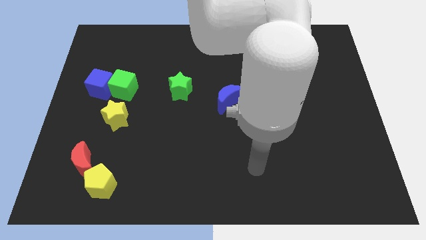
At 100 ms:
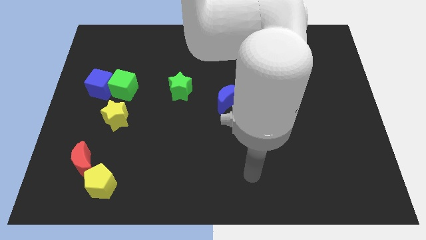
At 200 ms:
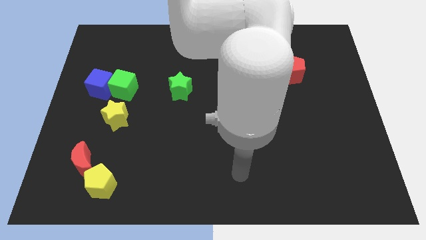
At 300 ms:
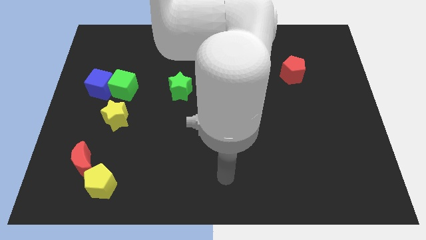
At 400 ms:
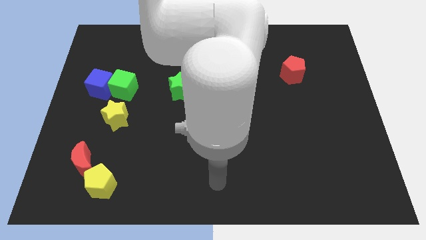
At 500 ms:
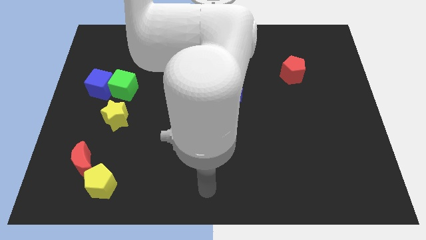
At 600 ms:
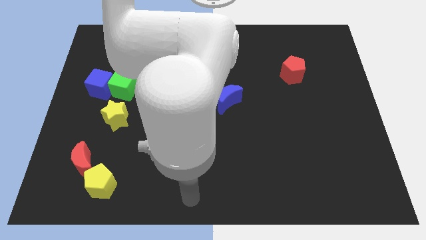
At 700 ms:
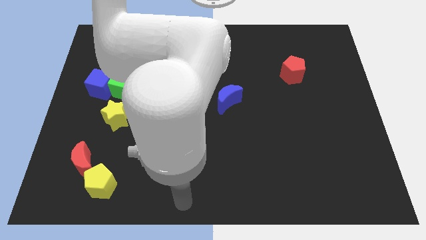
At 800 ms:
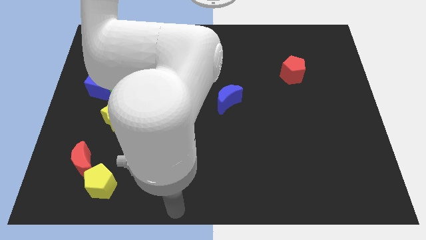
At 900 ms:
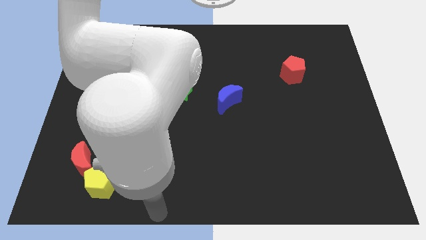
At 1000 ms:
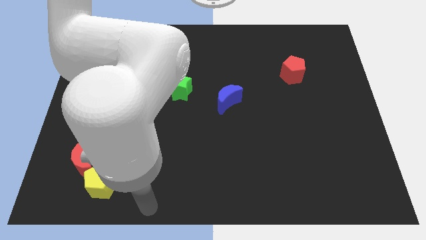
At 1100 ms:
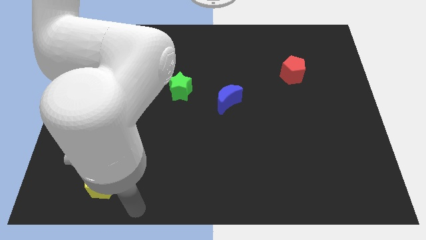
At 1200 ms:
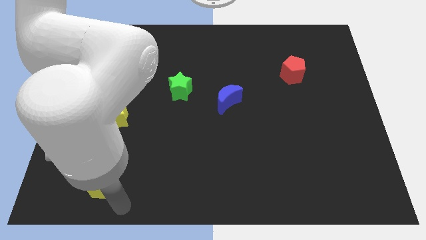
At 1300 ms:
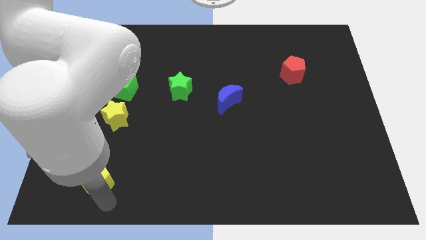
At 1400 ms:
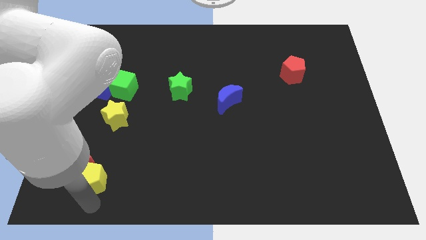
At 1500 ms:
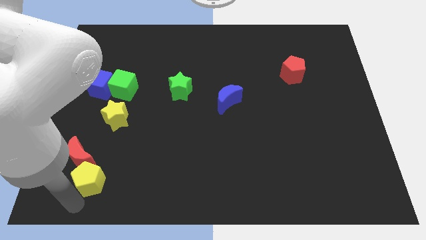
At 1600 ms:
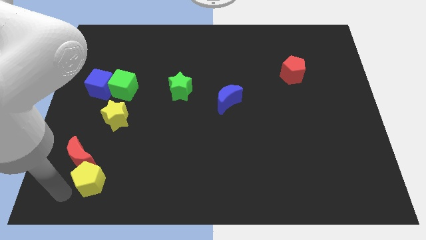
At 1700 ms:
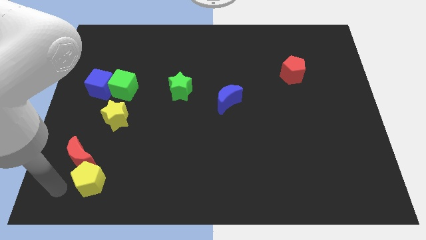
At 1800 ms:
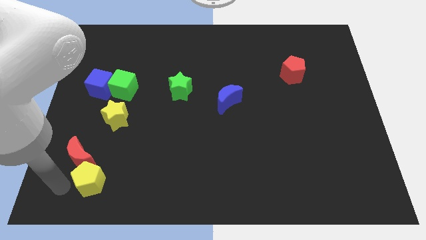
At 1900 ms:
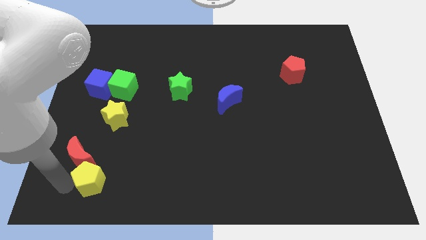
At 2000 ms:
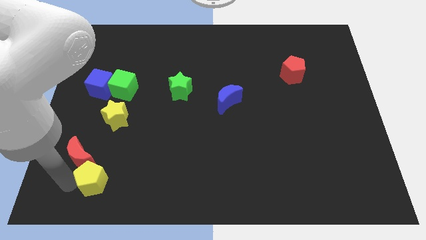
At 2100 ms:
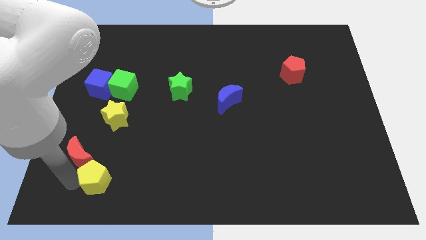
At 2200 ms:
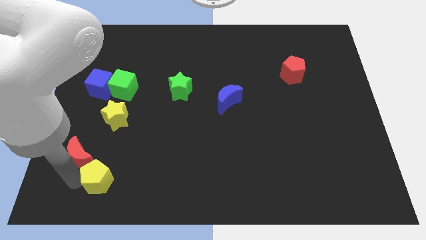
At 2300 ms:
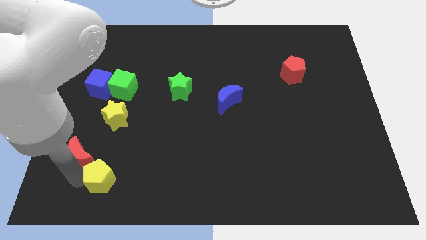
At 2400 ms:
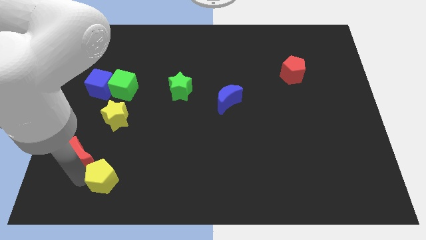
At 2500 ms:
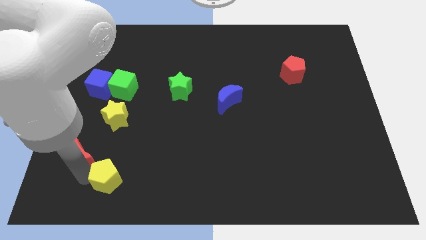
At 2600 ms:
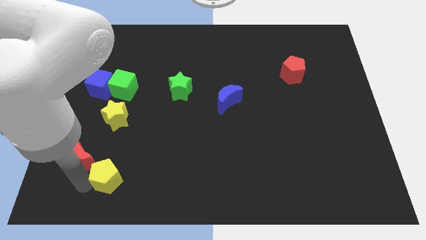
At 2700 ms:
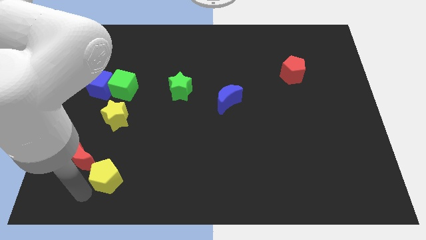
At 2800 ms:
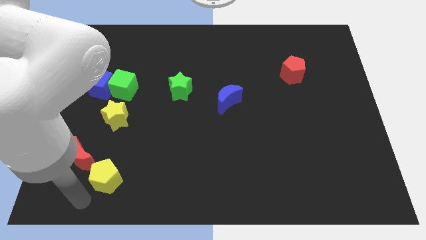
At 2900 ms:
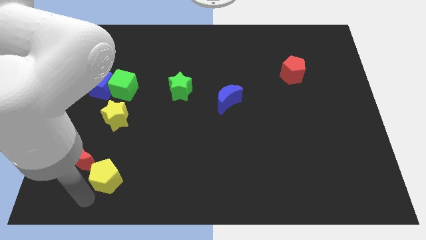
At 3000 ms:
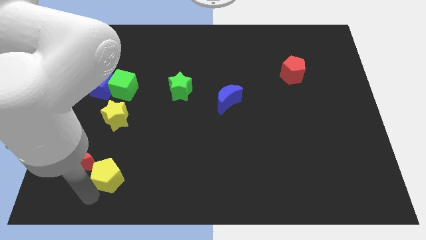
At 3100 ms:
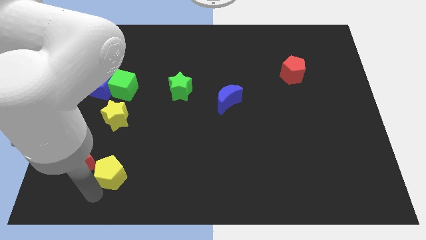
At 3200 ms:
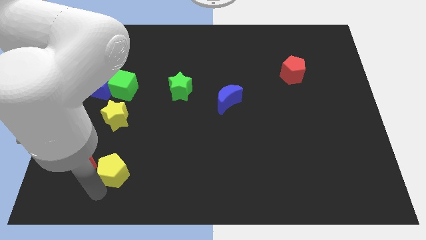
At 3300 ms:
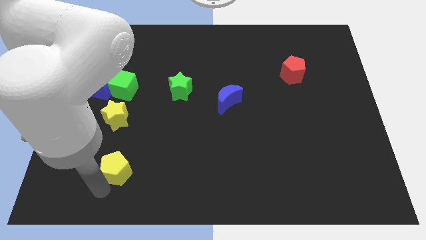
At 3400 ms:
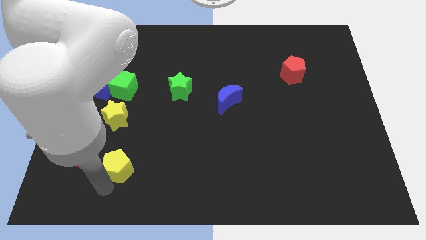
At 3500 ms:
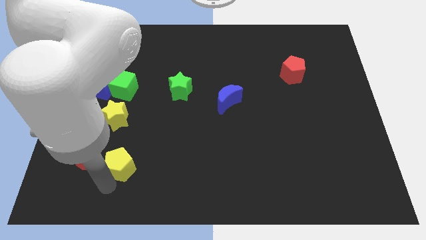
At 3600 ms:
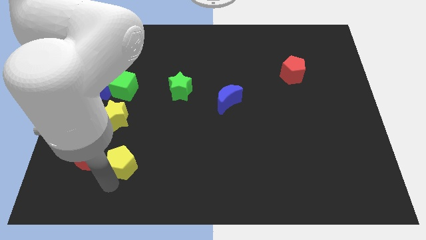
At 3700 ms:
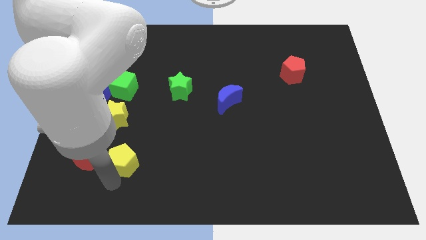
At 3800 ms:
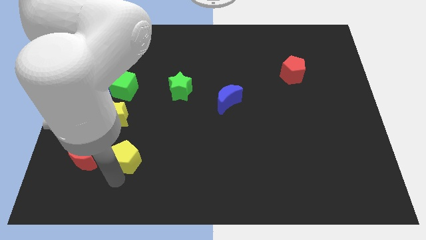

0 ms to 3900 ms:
push the yellow pentagon a little bit upwards and to the right

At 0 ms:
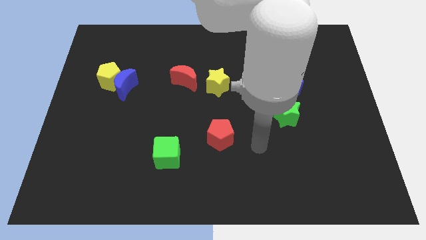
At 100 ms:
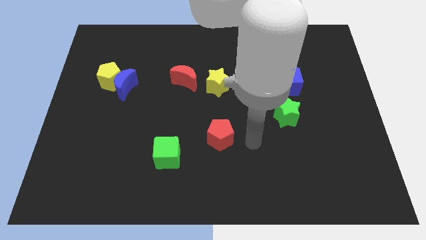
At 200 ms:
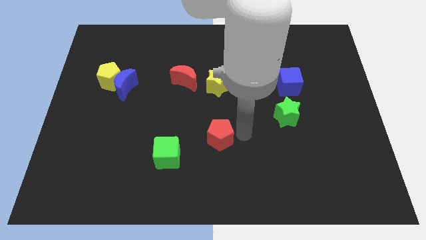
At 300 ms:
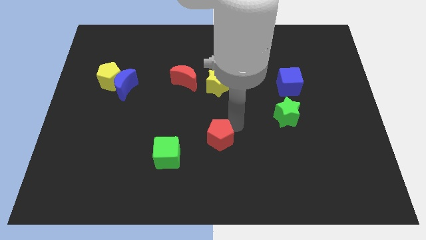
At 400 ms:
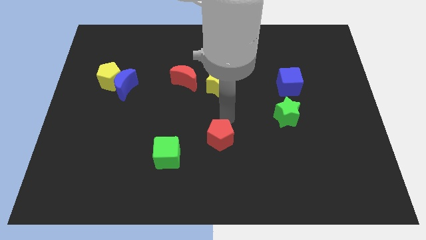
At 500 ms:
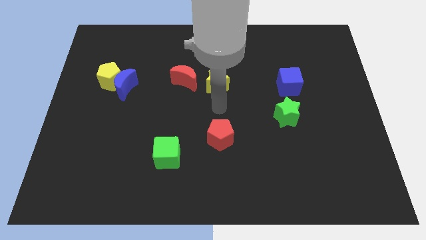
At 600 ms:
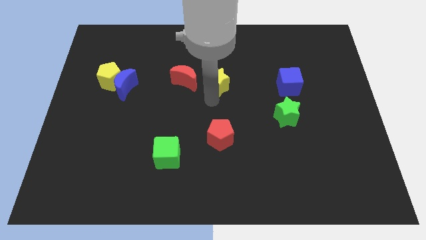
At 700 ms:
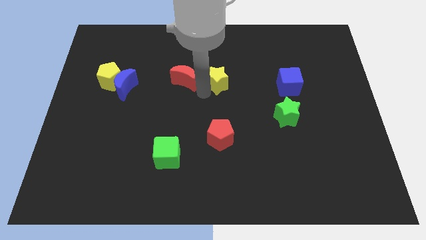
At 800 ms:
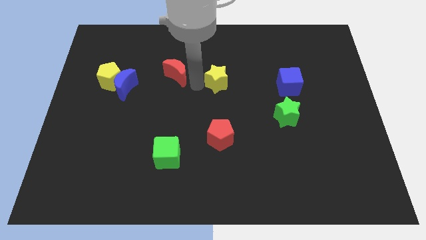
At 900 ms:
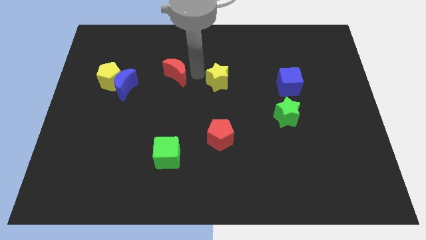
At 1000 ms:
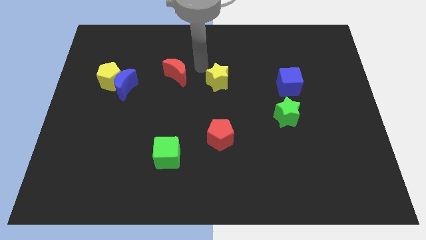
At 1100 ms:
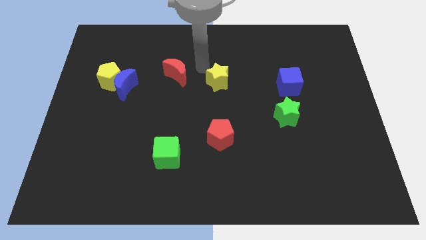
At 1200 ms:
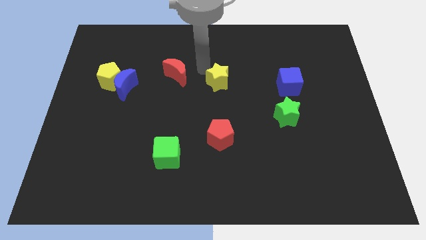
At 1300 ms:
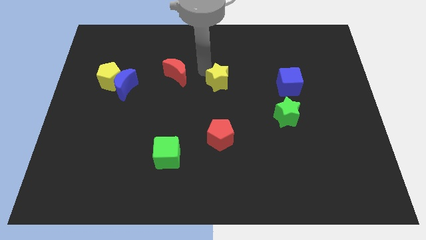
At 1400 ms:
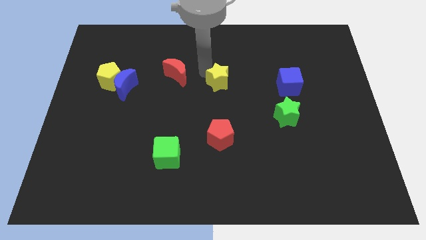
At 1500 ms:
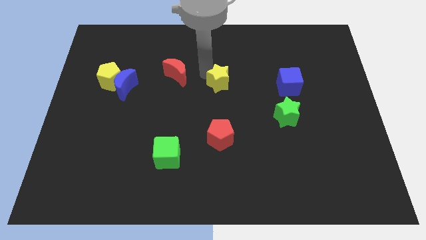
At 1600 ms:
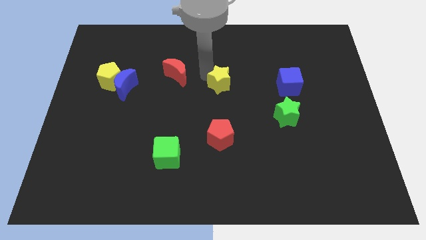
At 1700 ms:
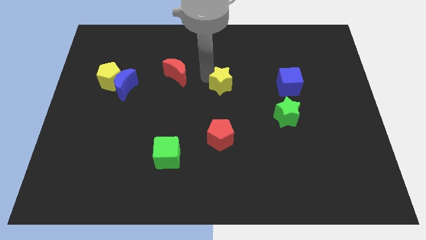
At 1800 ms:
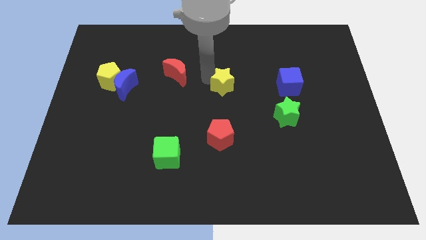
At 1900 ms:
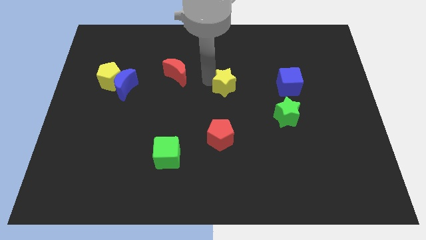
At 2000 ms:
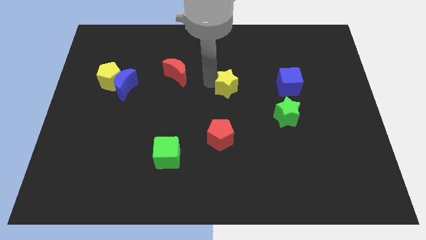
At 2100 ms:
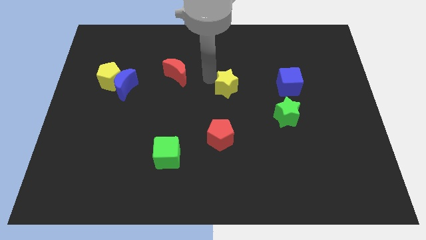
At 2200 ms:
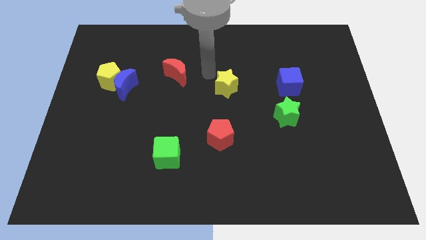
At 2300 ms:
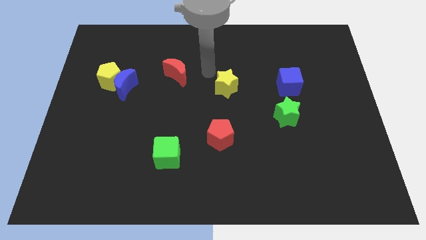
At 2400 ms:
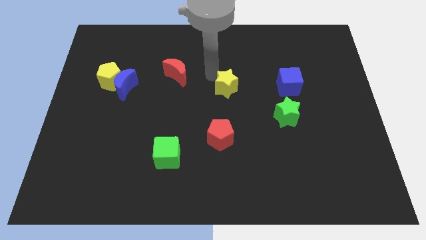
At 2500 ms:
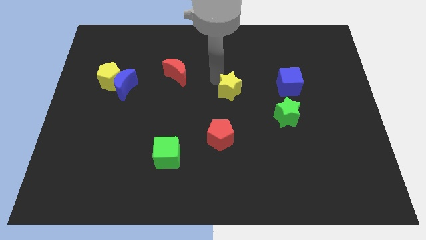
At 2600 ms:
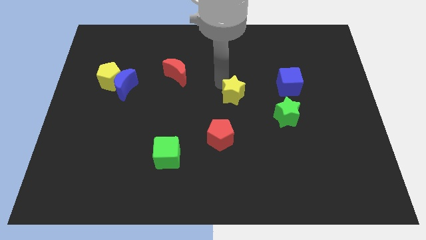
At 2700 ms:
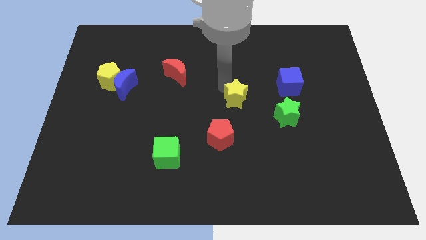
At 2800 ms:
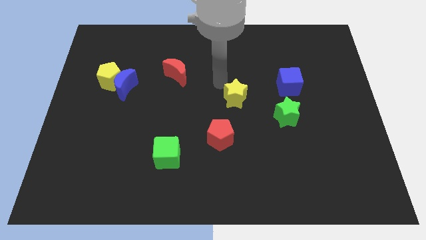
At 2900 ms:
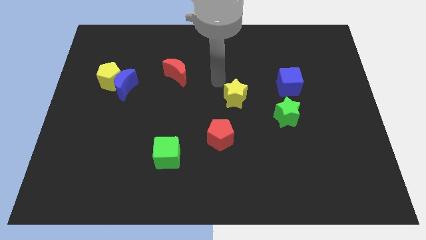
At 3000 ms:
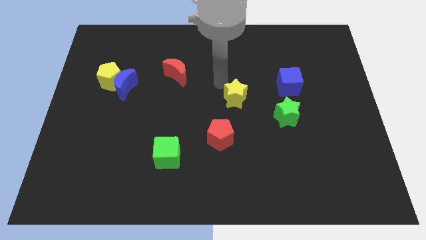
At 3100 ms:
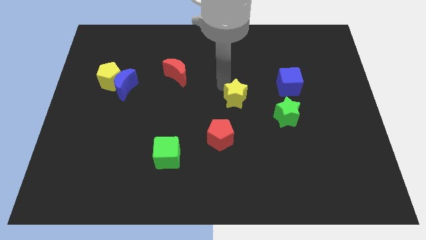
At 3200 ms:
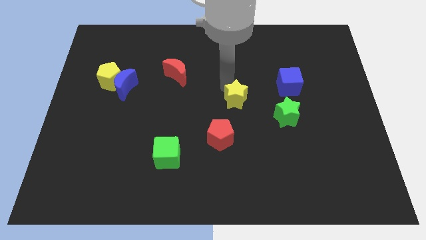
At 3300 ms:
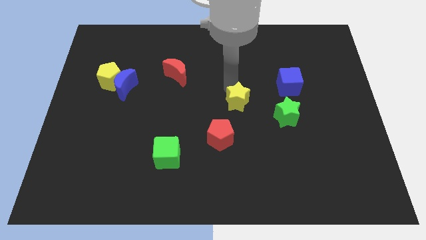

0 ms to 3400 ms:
slightly push the yellow star downwards and right
